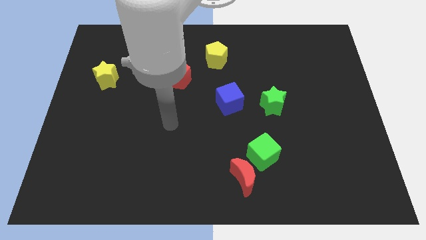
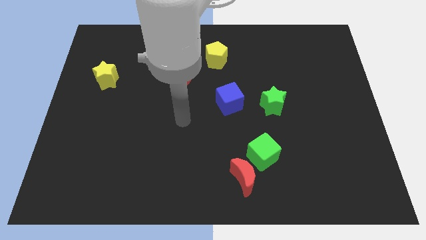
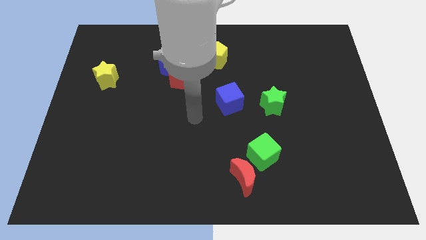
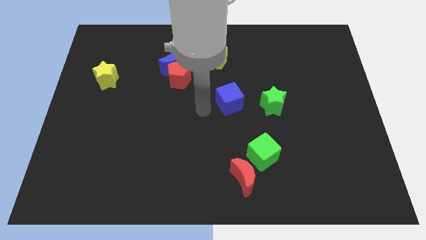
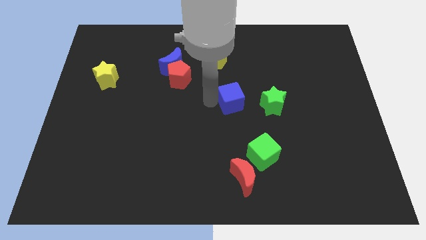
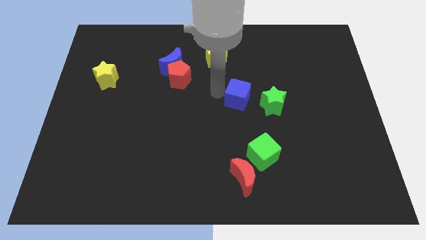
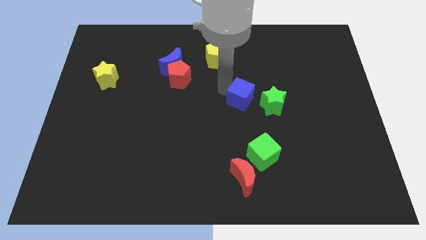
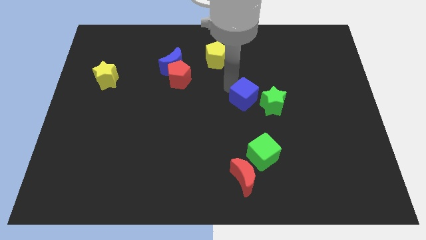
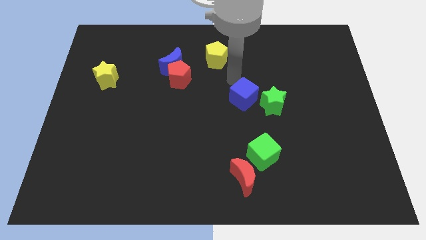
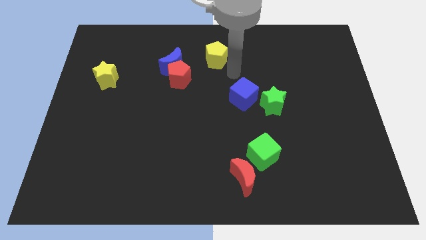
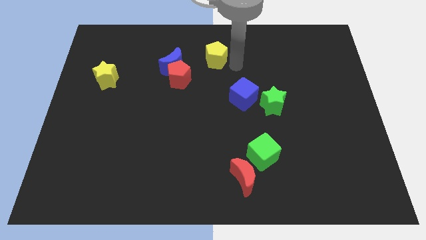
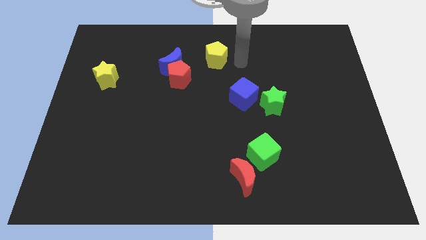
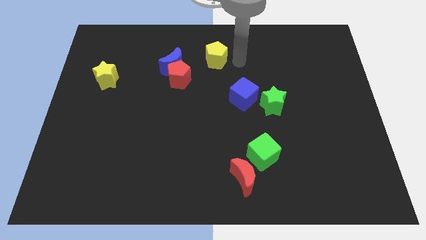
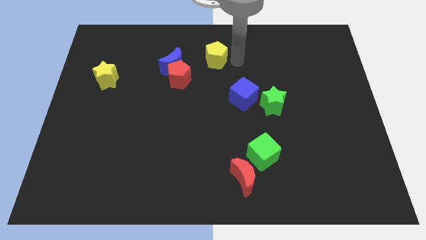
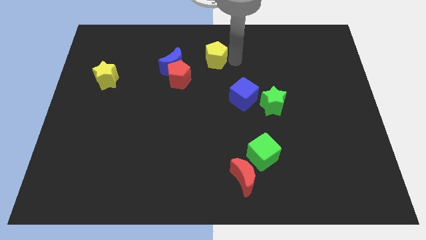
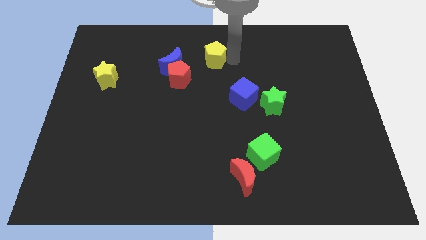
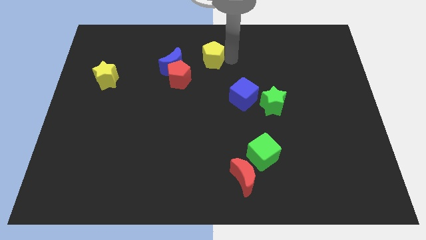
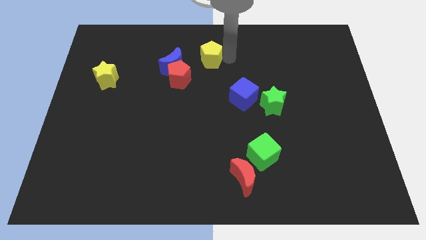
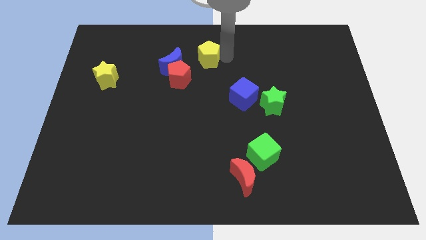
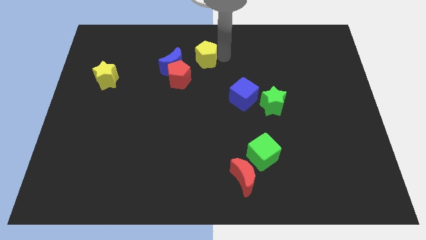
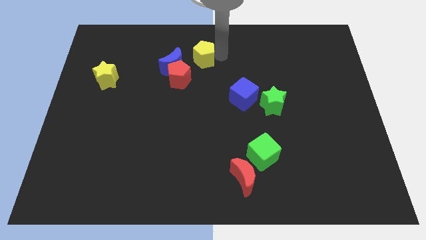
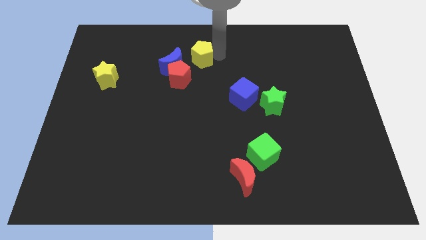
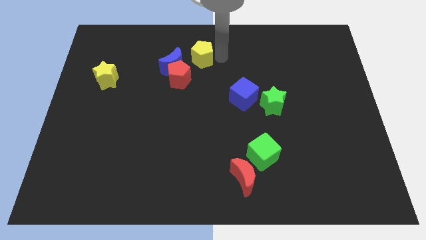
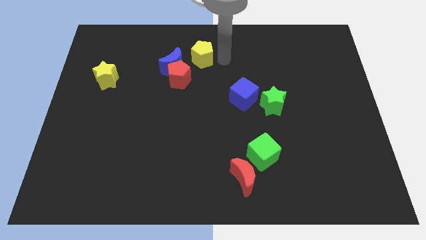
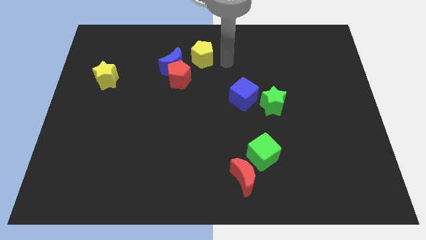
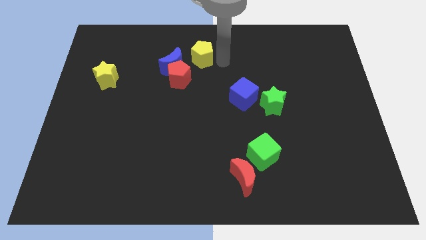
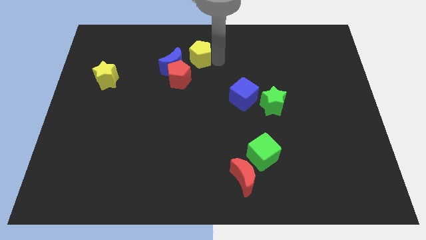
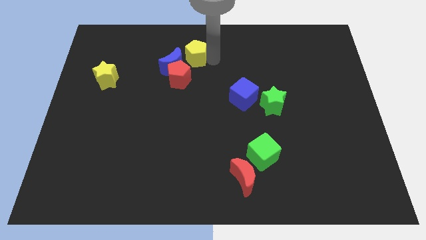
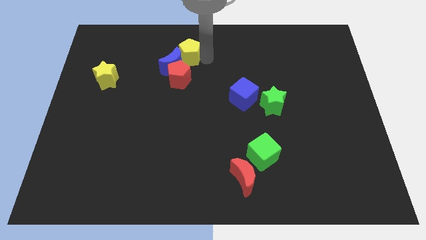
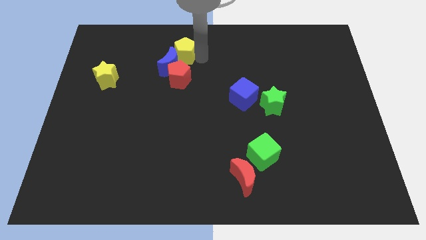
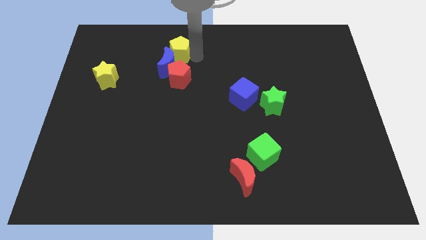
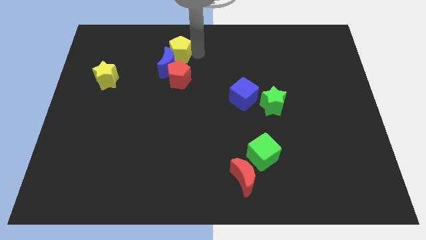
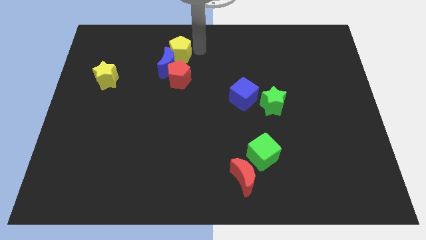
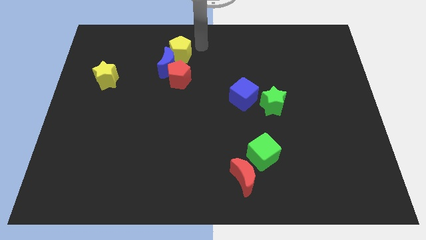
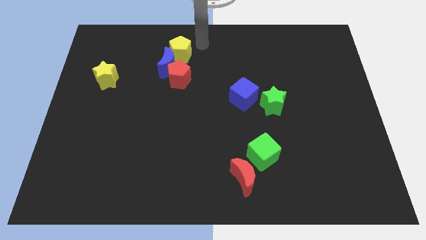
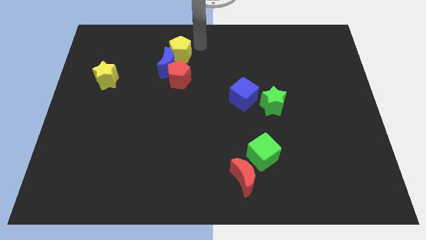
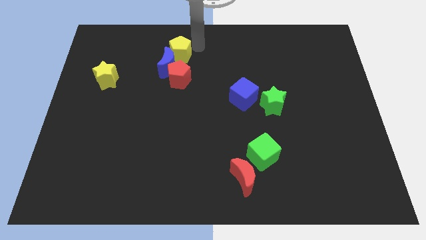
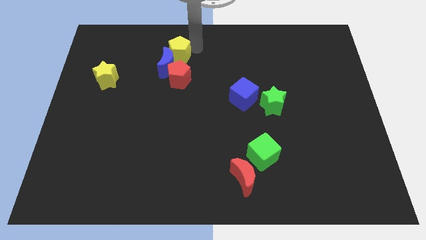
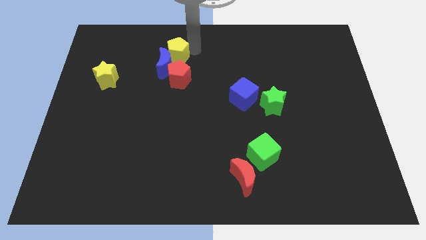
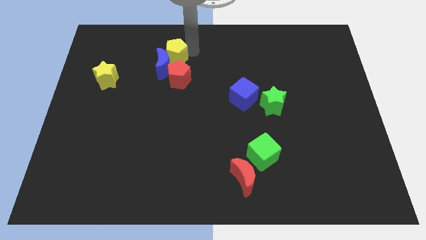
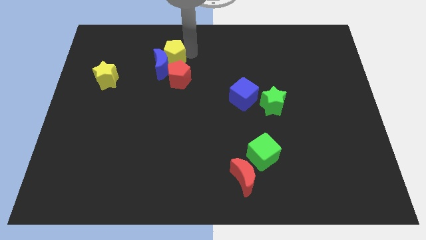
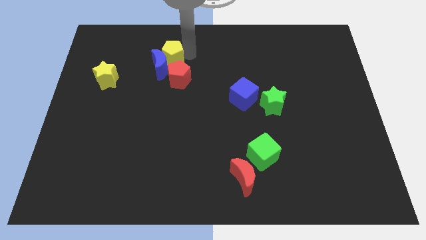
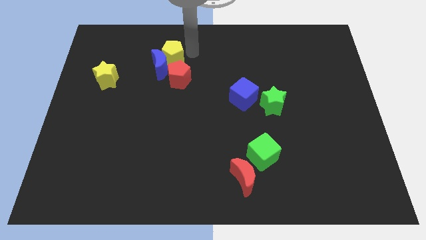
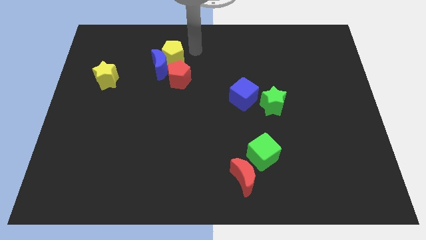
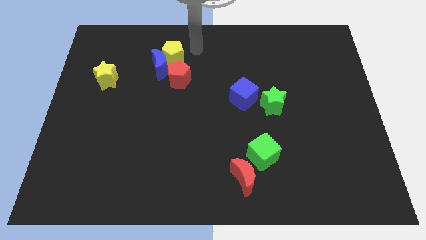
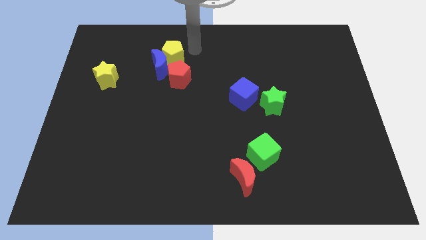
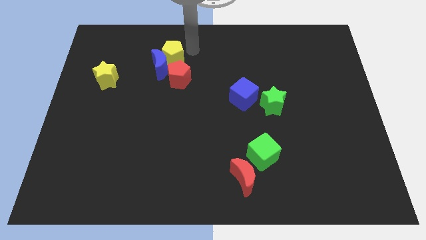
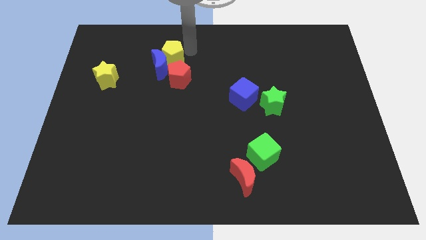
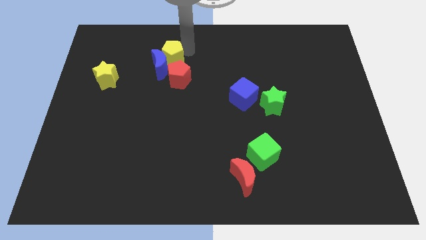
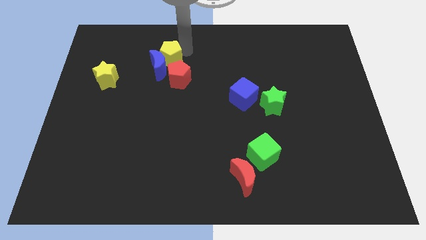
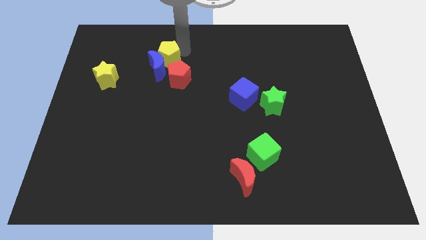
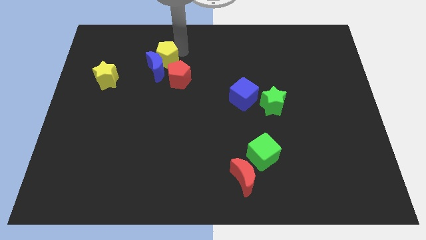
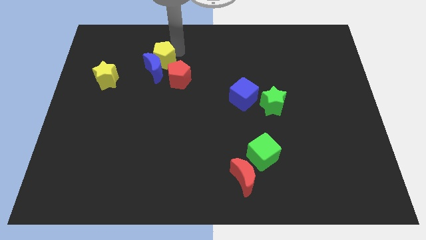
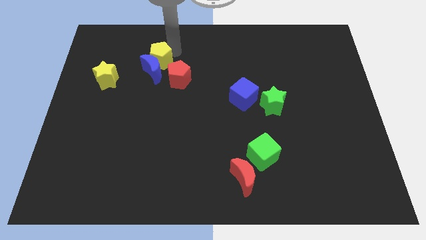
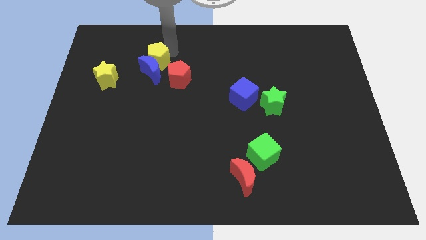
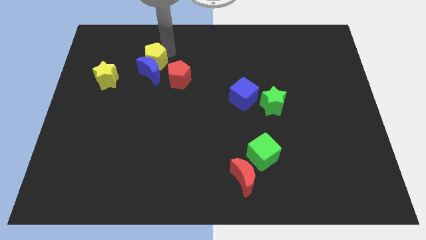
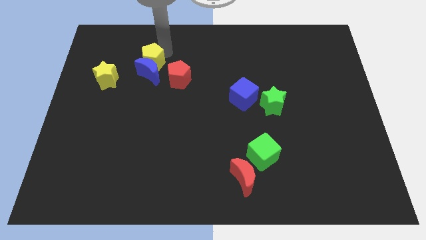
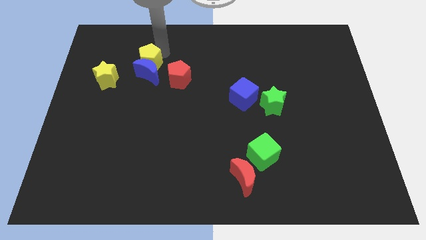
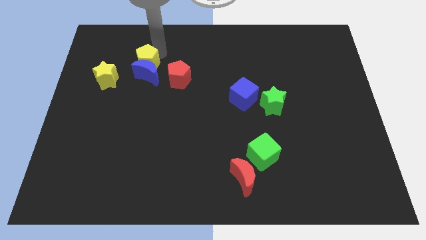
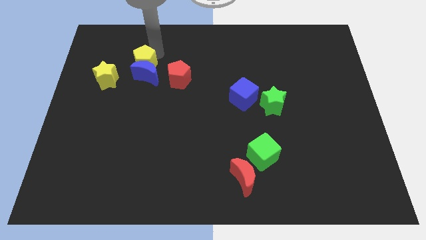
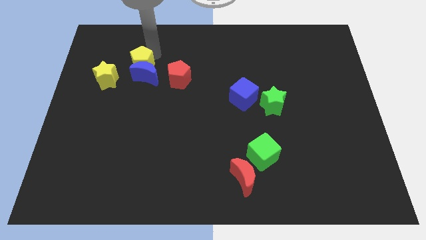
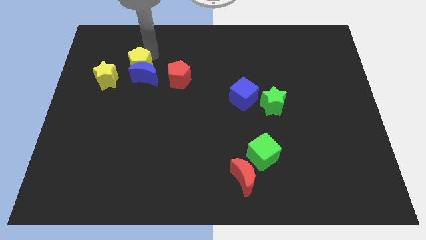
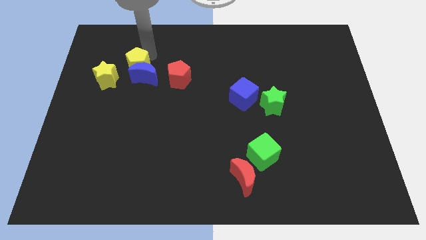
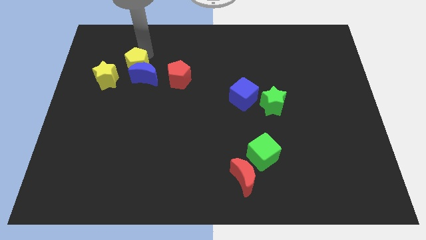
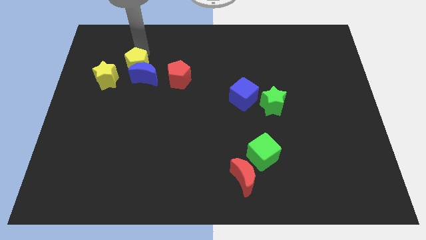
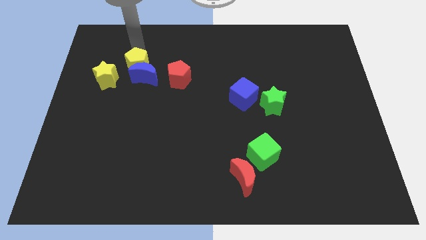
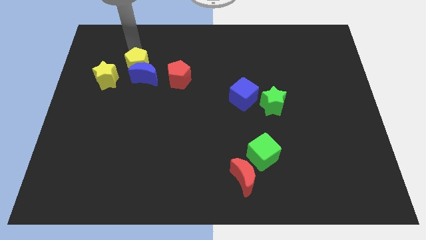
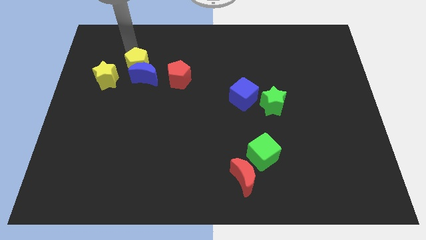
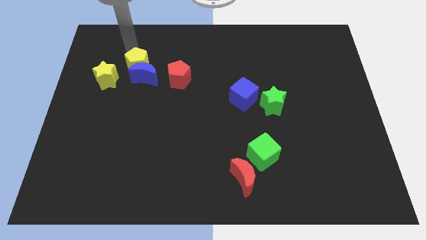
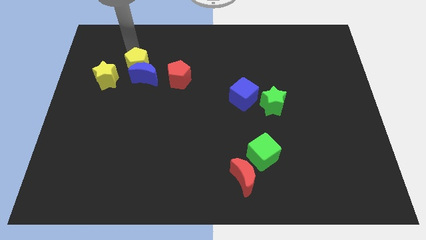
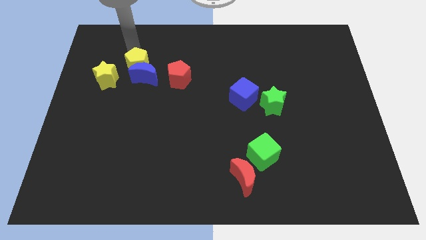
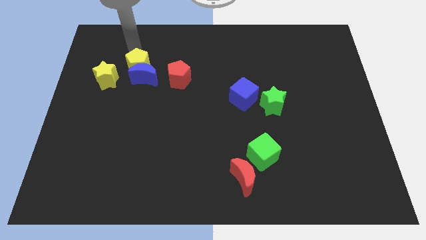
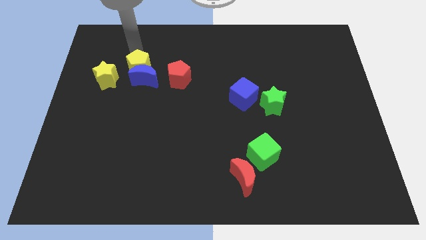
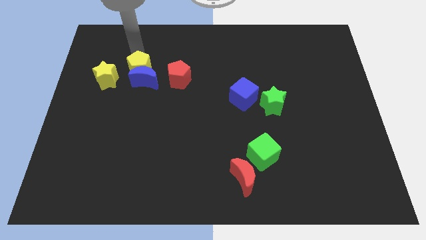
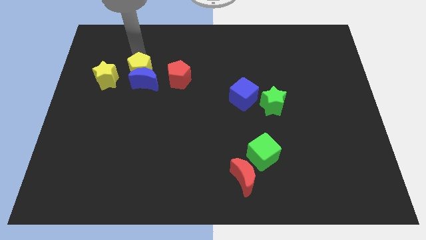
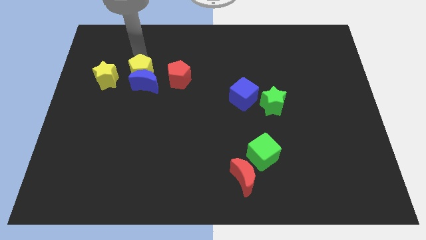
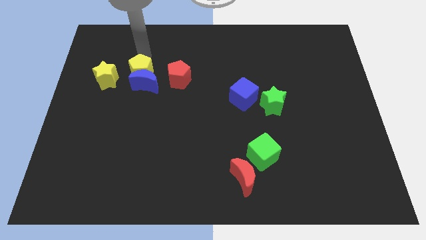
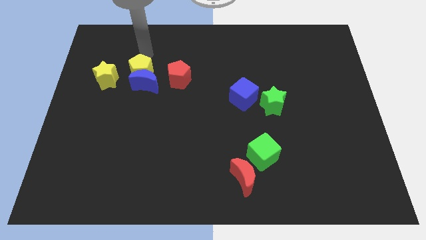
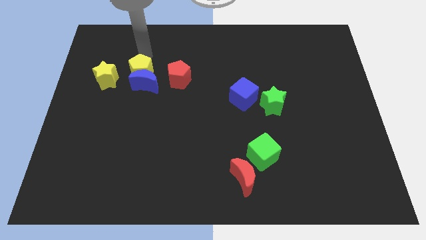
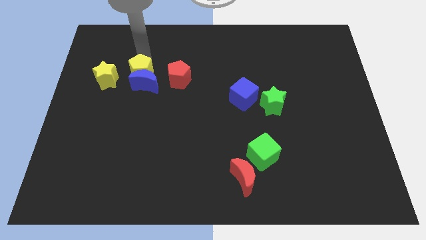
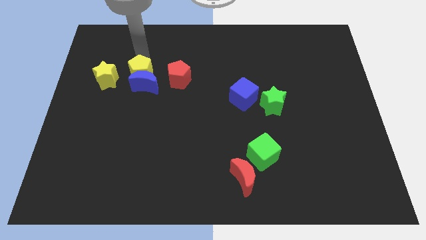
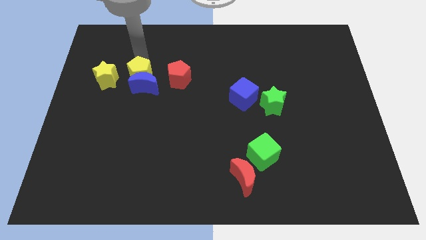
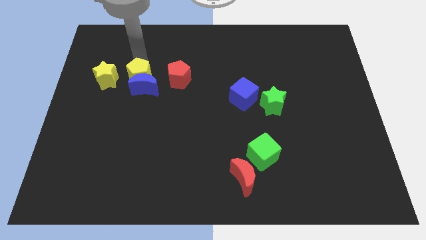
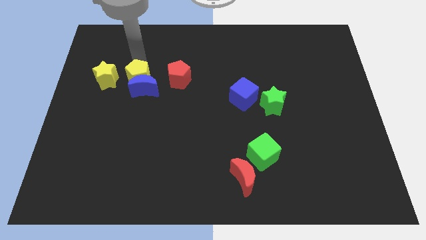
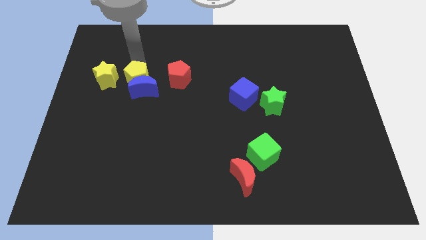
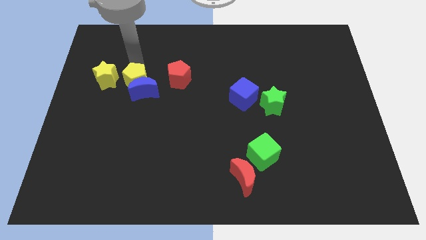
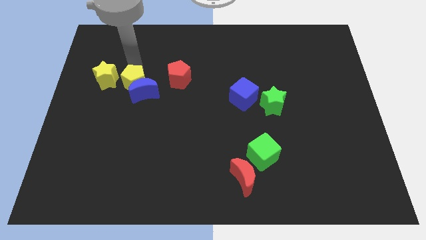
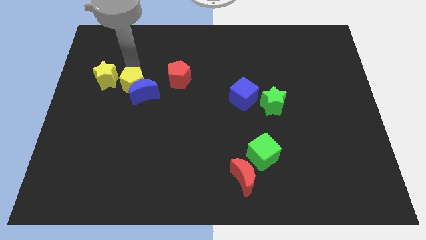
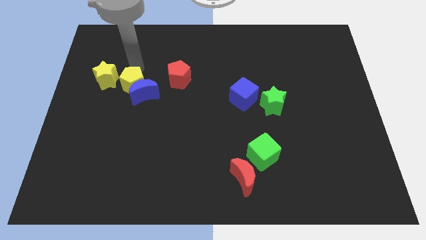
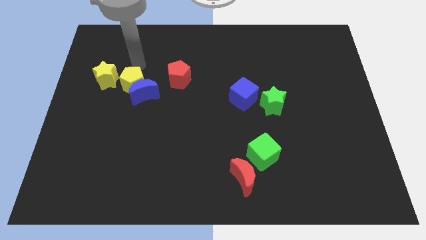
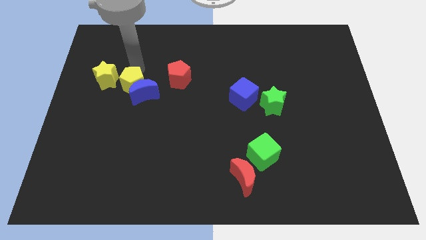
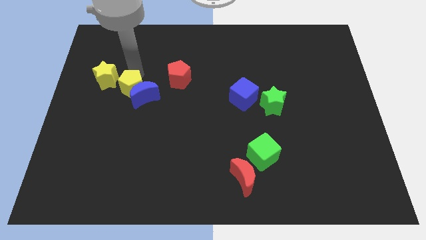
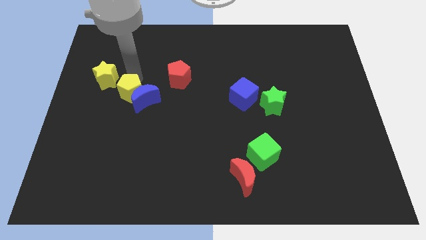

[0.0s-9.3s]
move the yellow pentagon diagonally down and left
